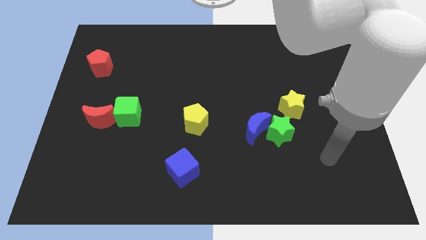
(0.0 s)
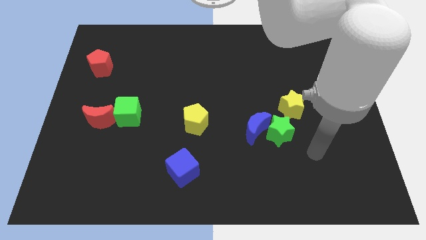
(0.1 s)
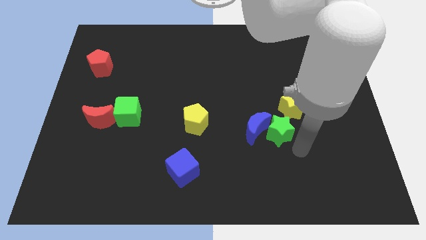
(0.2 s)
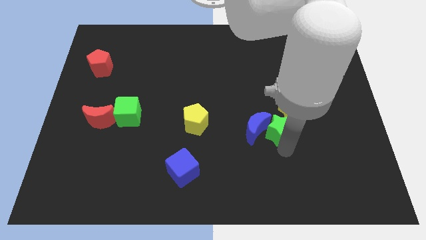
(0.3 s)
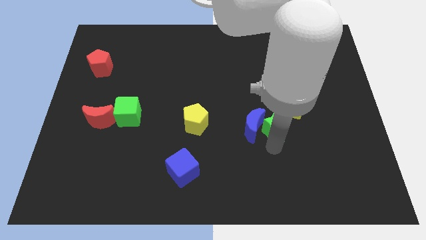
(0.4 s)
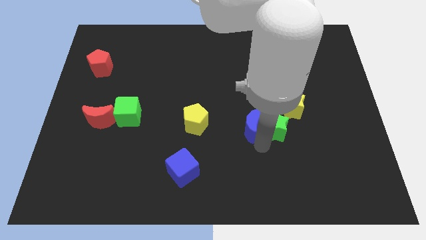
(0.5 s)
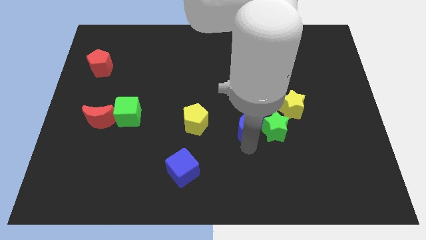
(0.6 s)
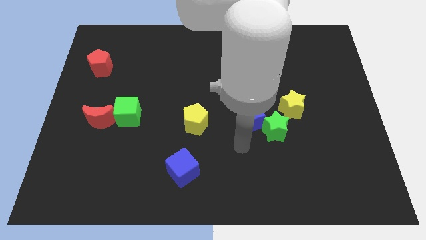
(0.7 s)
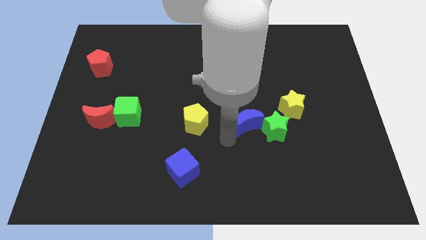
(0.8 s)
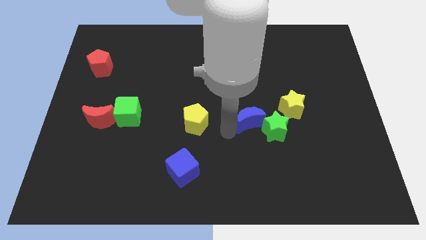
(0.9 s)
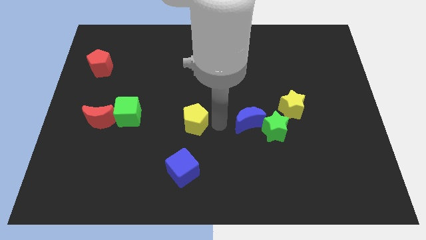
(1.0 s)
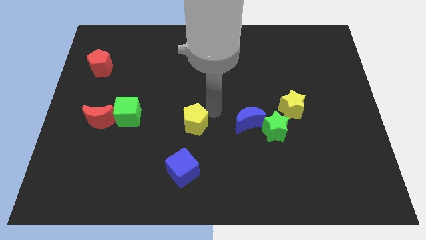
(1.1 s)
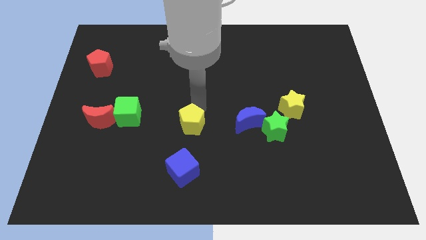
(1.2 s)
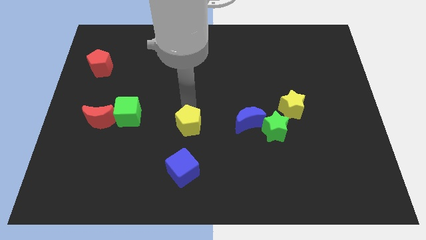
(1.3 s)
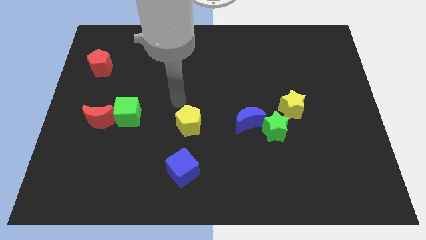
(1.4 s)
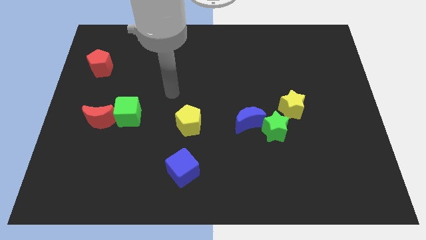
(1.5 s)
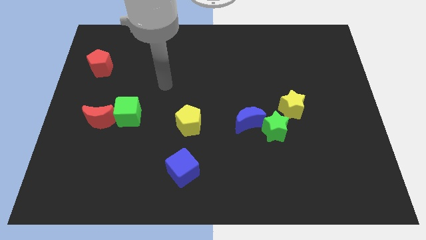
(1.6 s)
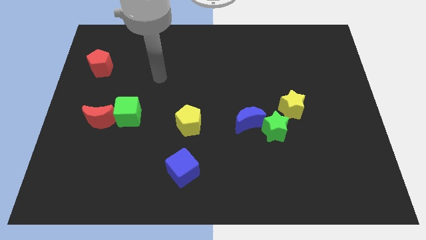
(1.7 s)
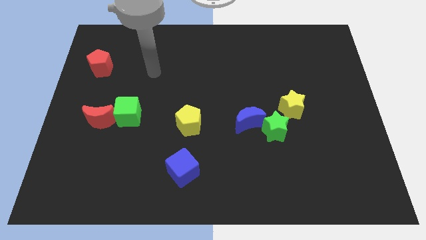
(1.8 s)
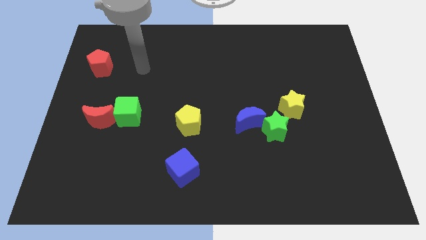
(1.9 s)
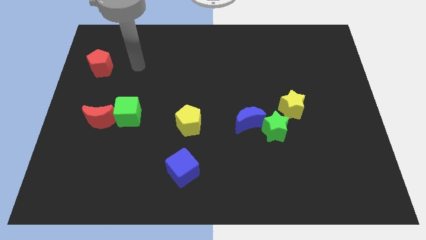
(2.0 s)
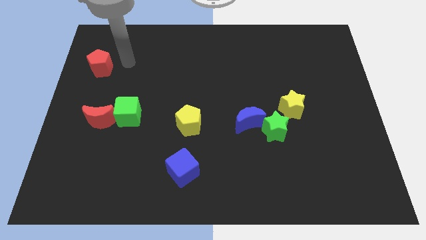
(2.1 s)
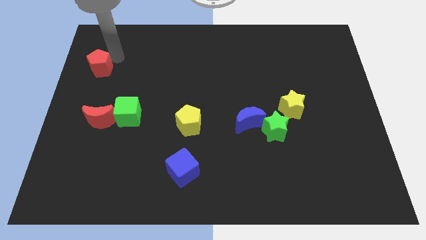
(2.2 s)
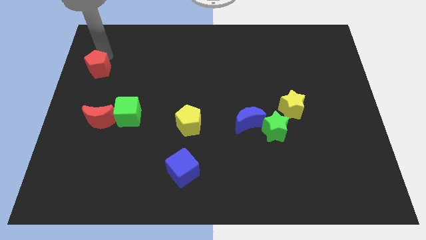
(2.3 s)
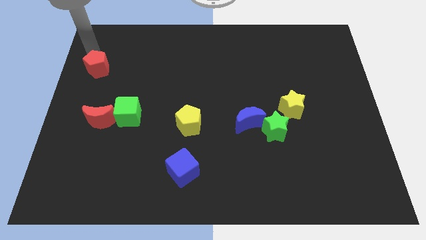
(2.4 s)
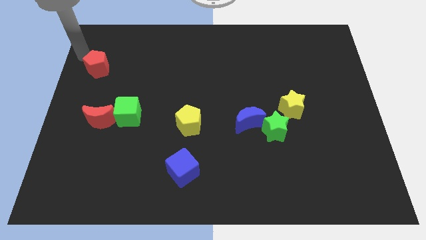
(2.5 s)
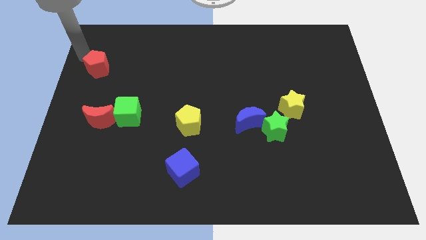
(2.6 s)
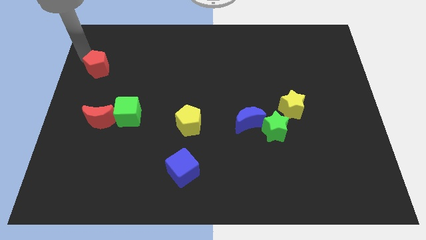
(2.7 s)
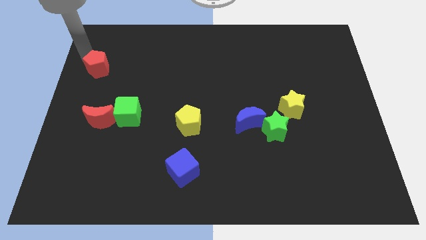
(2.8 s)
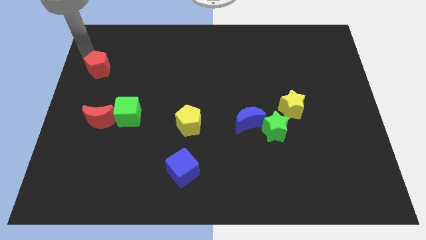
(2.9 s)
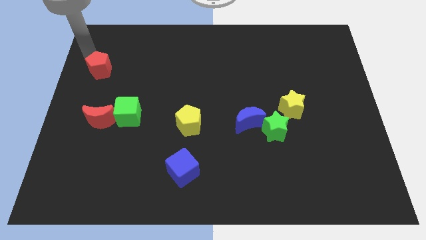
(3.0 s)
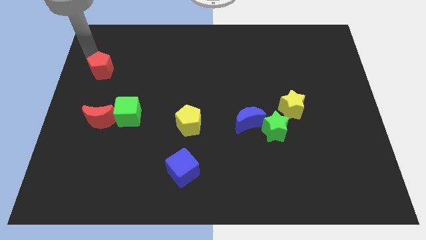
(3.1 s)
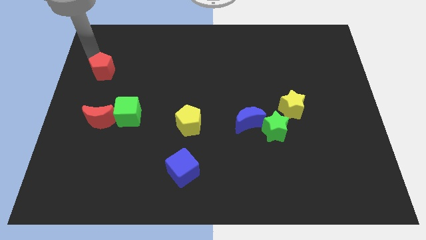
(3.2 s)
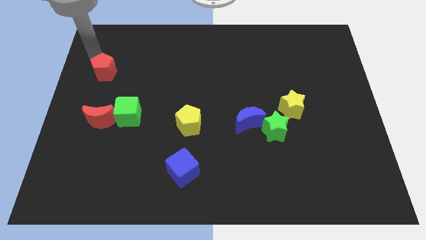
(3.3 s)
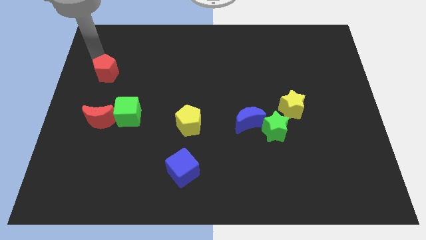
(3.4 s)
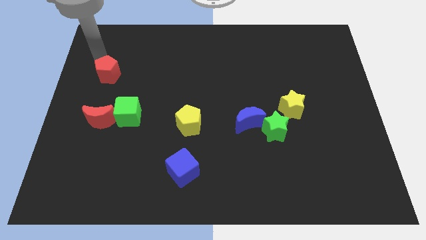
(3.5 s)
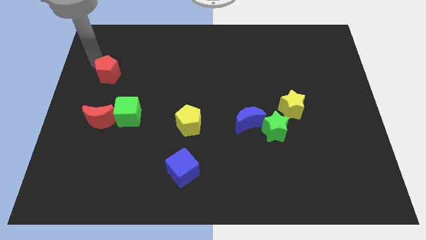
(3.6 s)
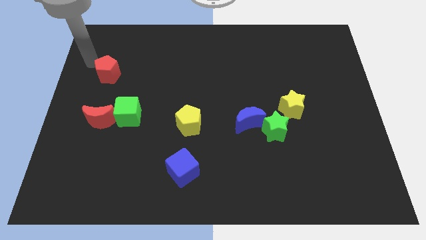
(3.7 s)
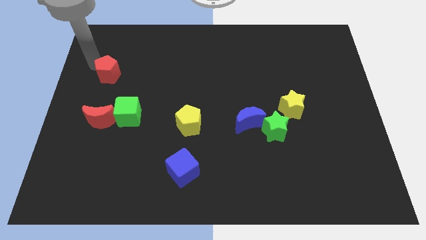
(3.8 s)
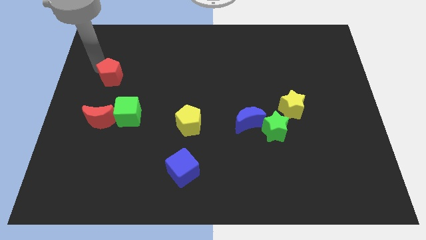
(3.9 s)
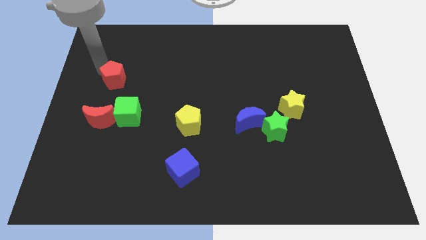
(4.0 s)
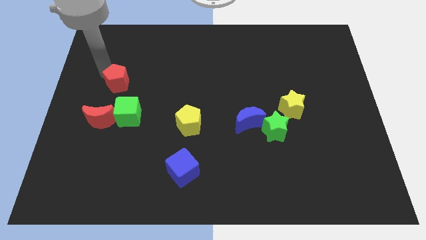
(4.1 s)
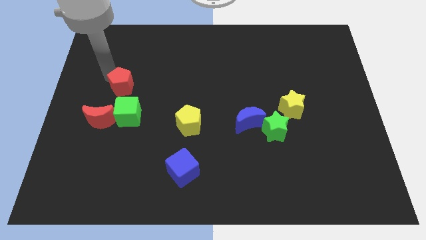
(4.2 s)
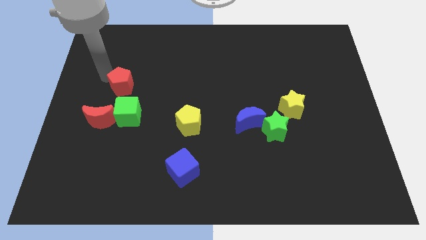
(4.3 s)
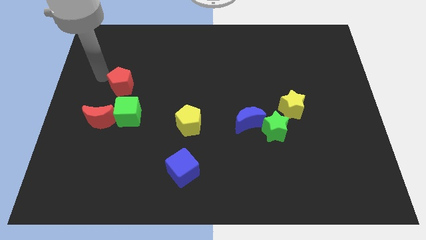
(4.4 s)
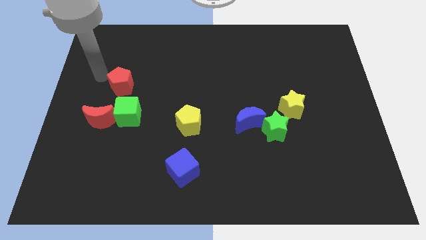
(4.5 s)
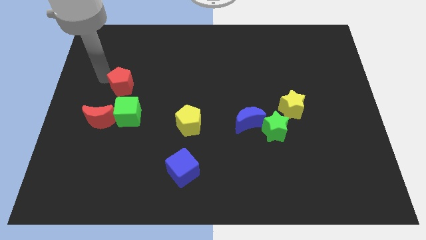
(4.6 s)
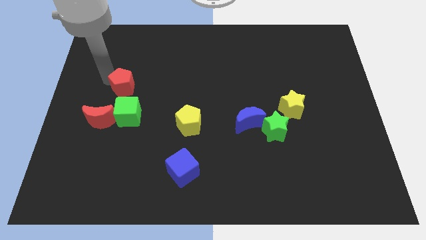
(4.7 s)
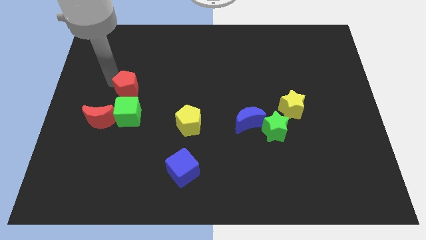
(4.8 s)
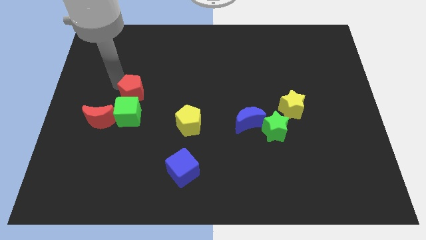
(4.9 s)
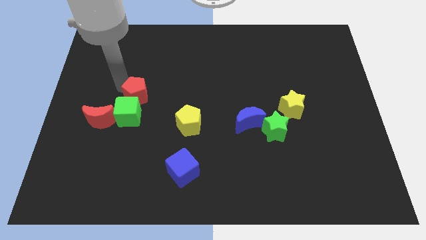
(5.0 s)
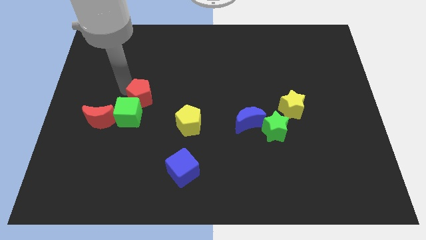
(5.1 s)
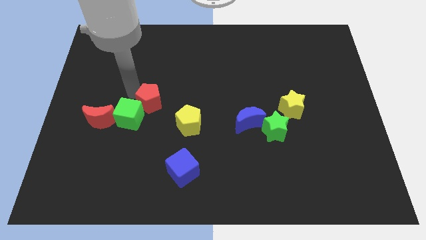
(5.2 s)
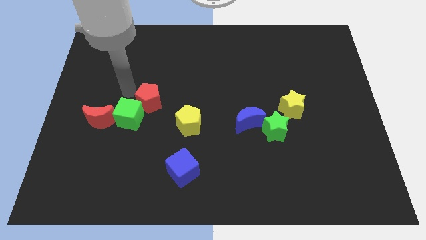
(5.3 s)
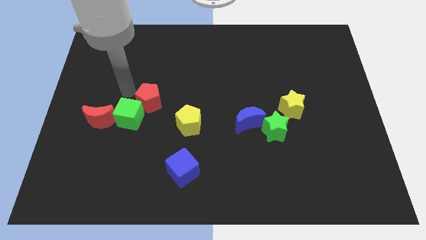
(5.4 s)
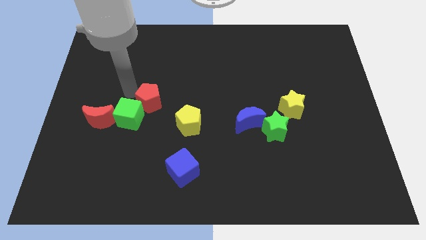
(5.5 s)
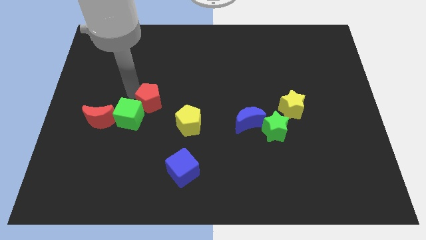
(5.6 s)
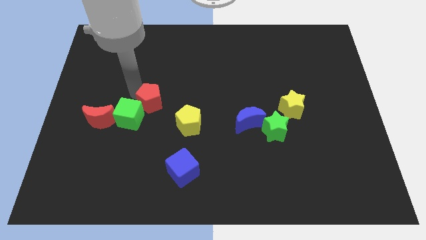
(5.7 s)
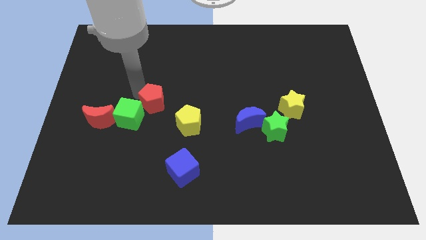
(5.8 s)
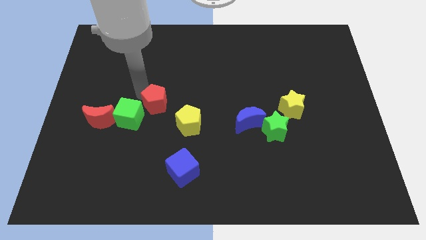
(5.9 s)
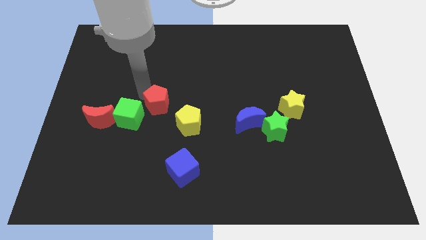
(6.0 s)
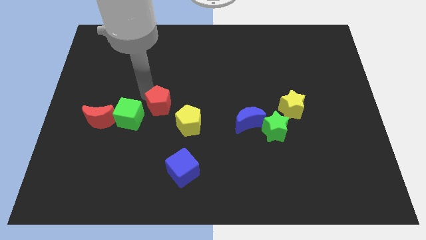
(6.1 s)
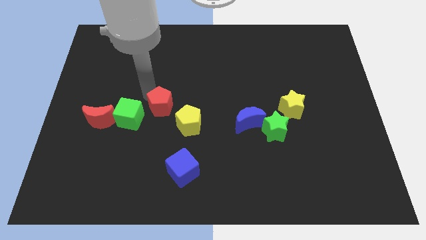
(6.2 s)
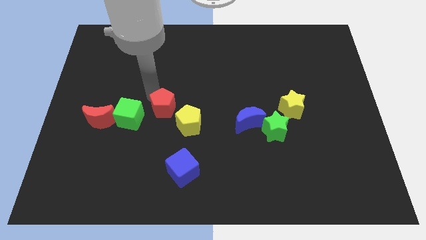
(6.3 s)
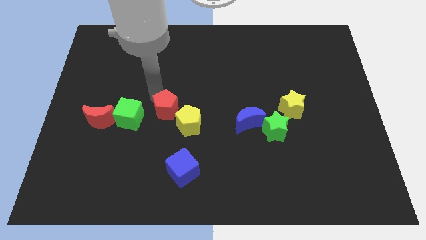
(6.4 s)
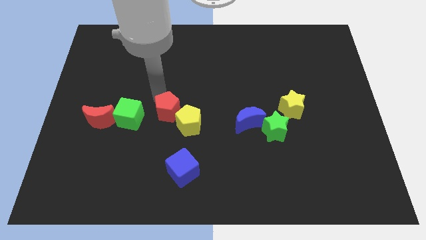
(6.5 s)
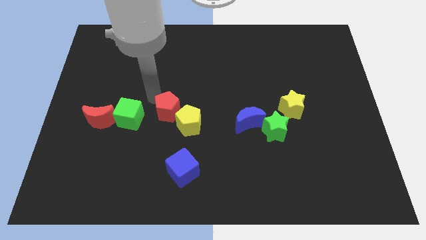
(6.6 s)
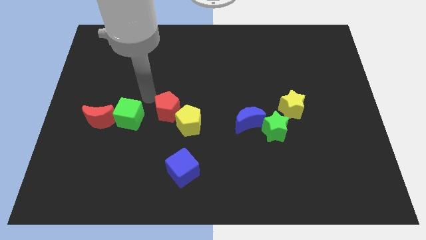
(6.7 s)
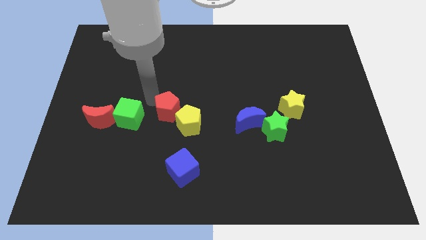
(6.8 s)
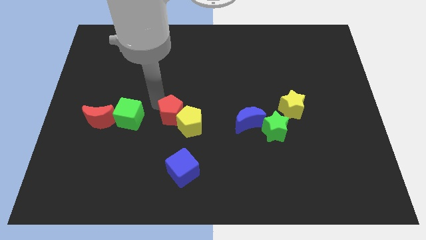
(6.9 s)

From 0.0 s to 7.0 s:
move the red pentagon to the yellow pentagon
